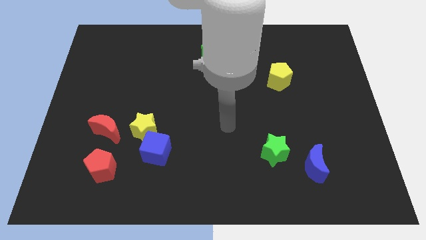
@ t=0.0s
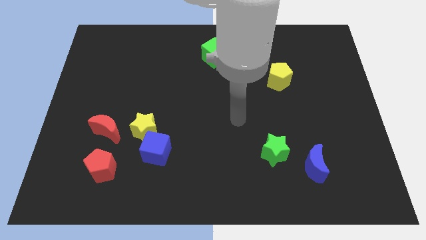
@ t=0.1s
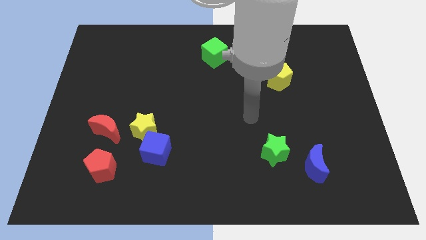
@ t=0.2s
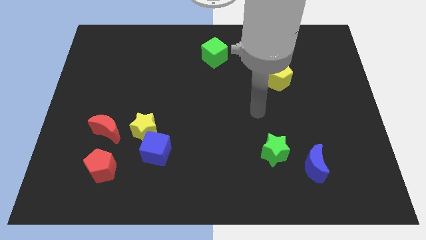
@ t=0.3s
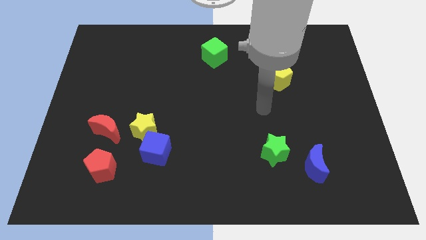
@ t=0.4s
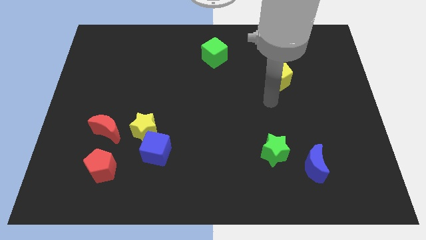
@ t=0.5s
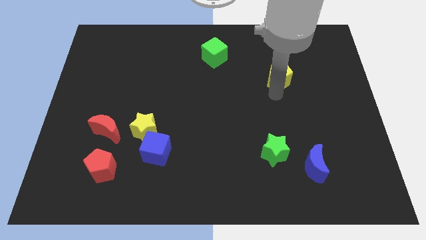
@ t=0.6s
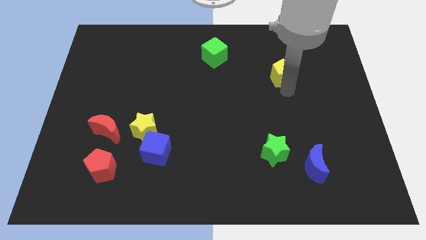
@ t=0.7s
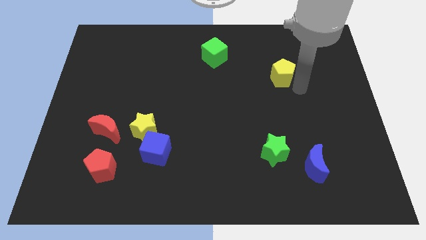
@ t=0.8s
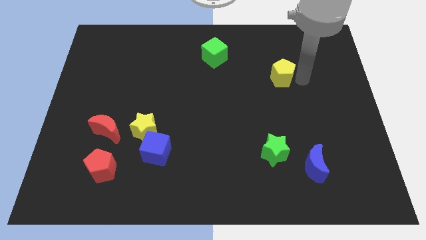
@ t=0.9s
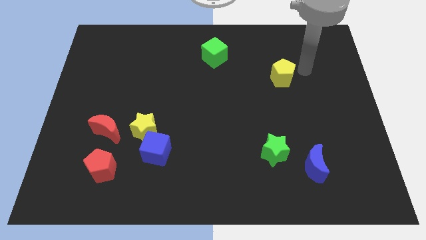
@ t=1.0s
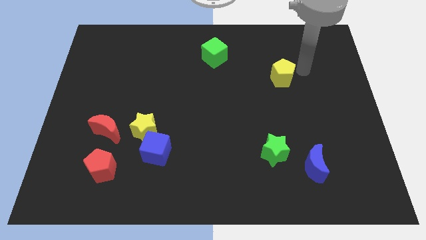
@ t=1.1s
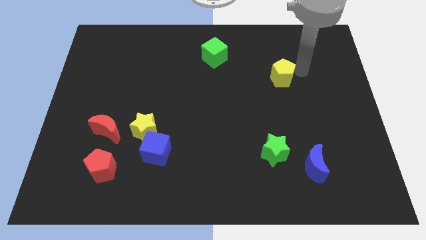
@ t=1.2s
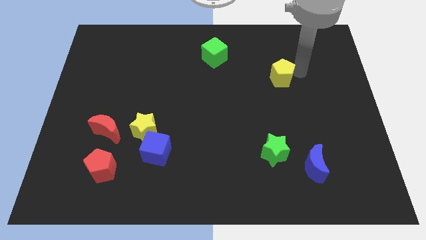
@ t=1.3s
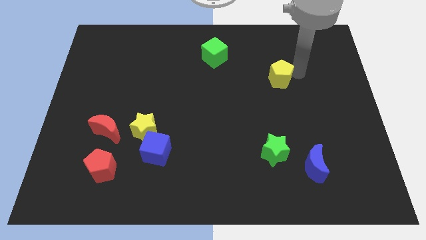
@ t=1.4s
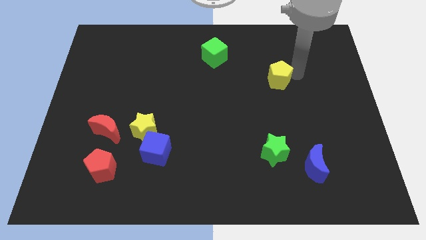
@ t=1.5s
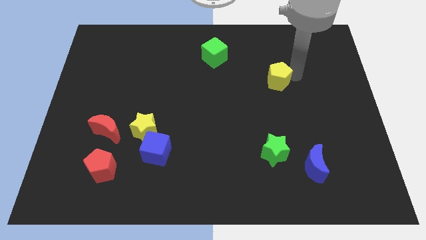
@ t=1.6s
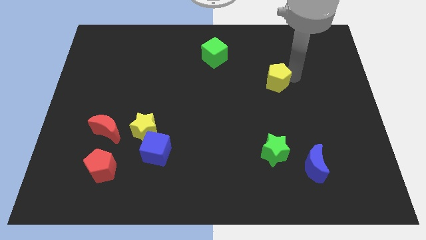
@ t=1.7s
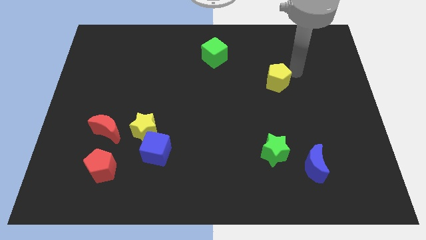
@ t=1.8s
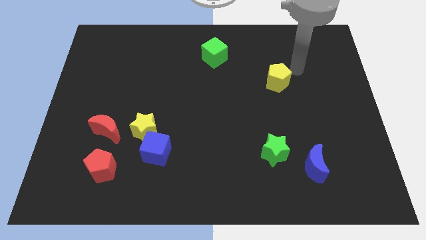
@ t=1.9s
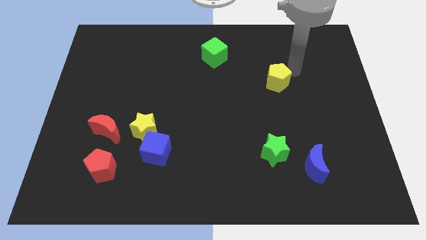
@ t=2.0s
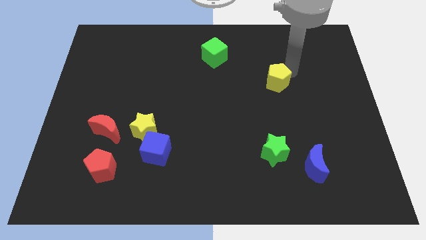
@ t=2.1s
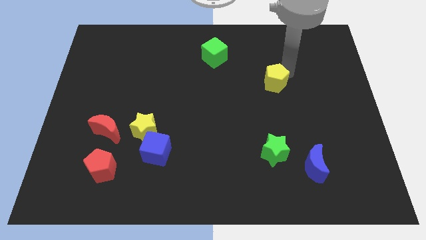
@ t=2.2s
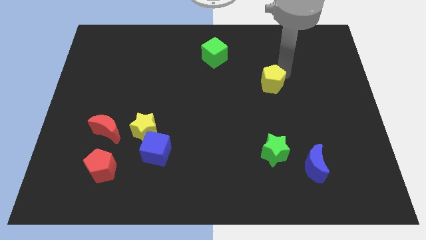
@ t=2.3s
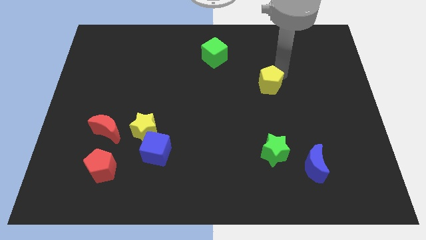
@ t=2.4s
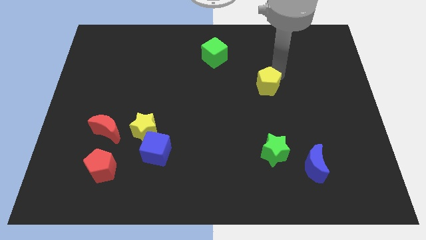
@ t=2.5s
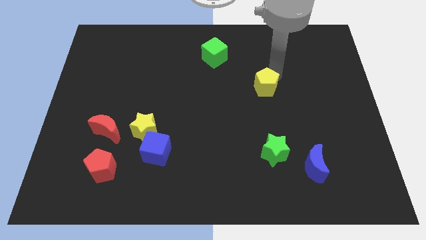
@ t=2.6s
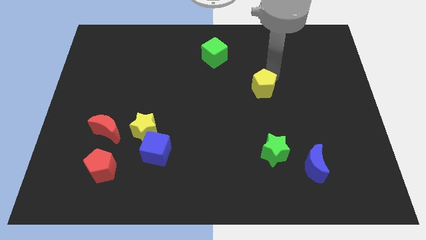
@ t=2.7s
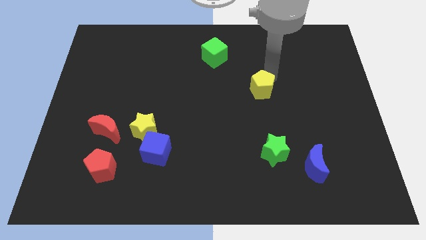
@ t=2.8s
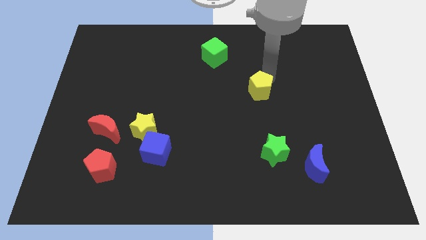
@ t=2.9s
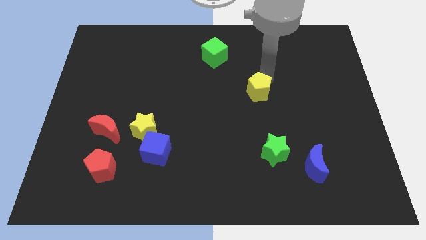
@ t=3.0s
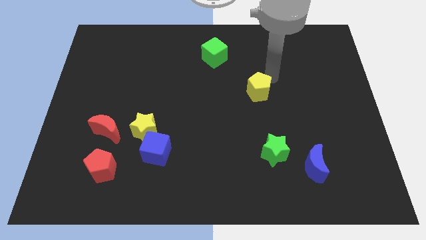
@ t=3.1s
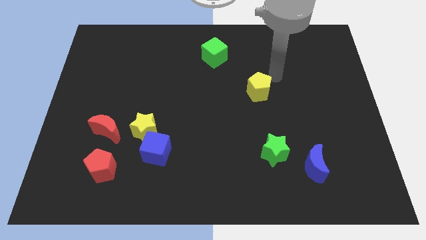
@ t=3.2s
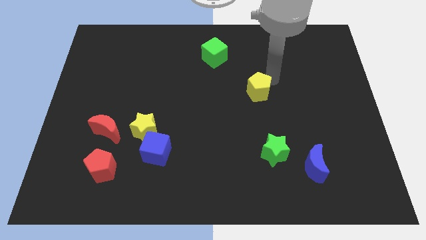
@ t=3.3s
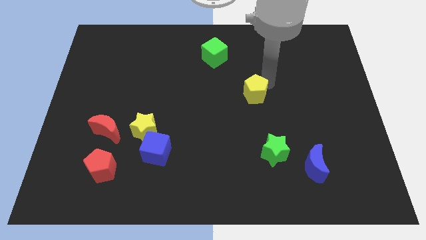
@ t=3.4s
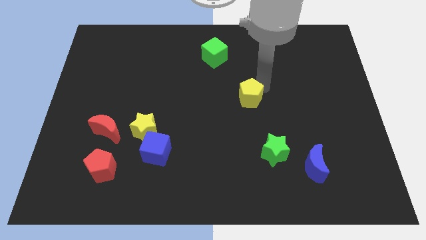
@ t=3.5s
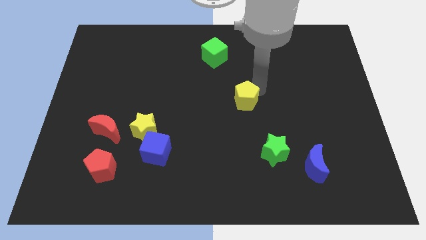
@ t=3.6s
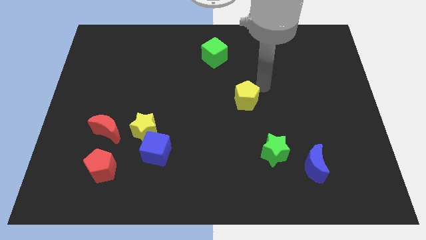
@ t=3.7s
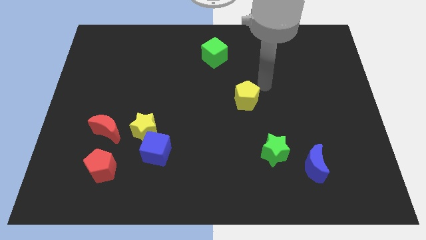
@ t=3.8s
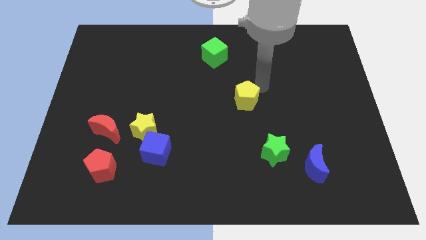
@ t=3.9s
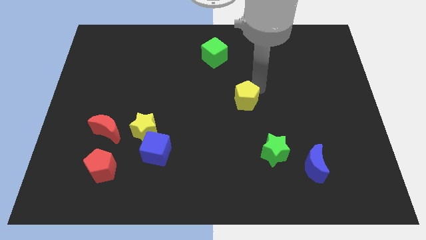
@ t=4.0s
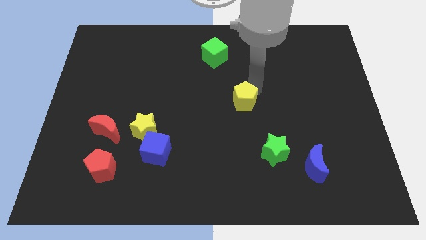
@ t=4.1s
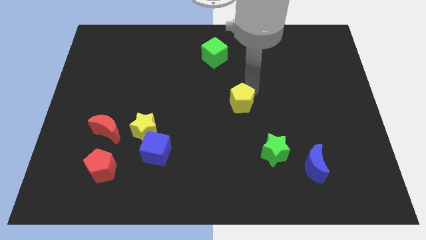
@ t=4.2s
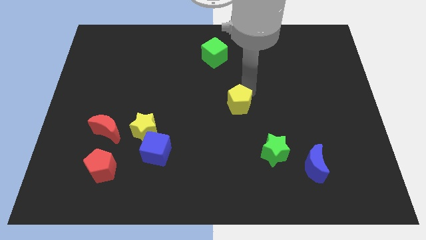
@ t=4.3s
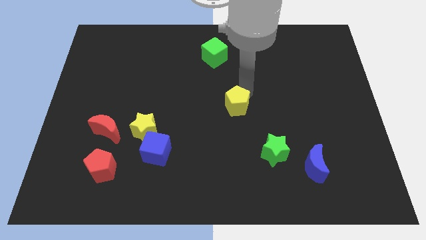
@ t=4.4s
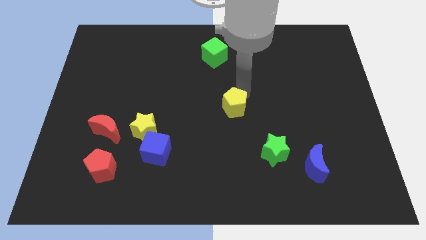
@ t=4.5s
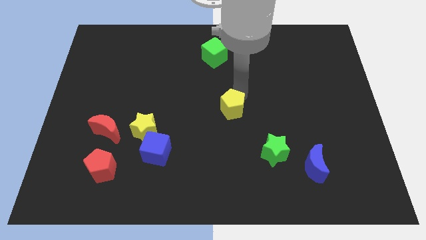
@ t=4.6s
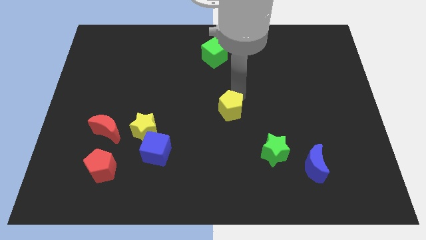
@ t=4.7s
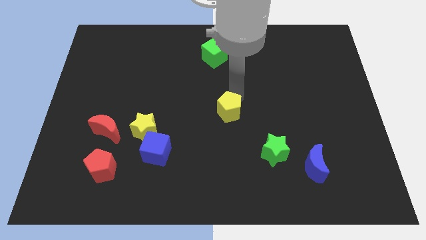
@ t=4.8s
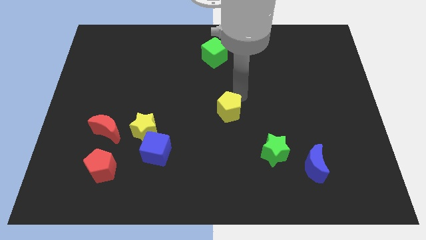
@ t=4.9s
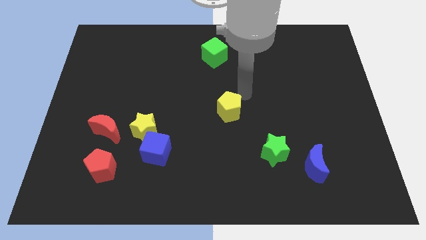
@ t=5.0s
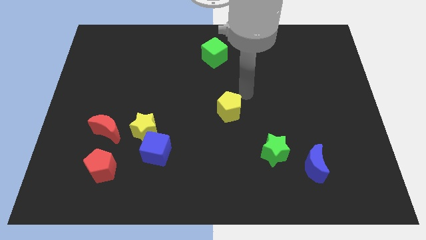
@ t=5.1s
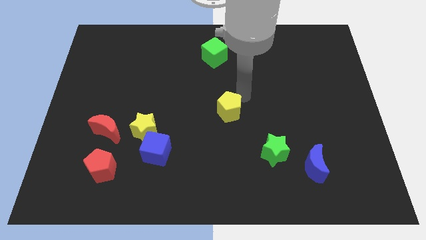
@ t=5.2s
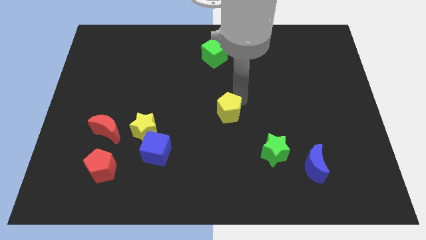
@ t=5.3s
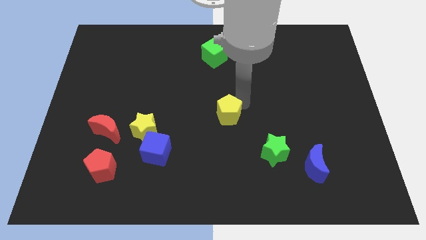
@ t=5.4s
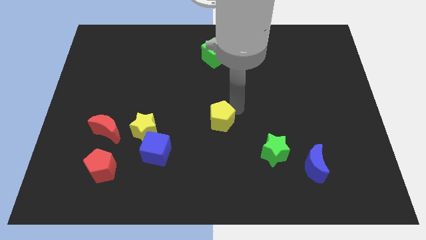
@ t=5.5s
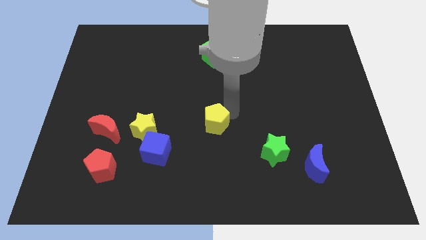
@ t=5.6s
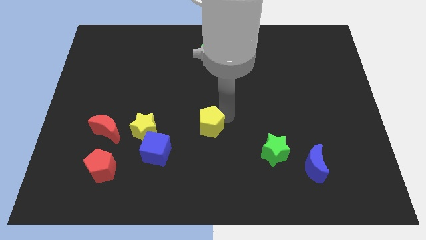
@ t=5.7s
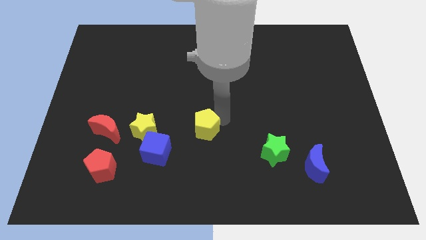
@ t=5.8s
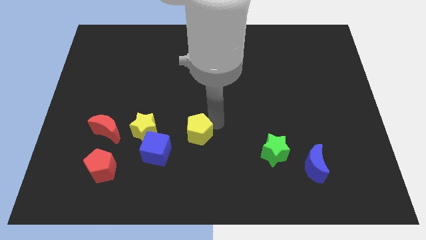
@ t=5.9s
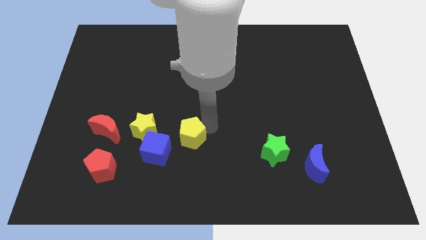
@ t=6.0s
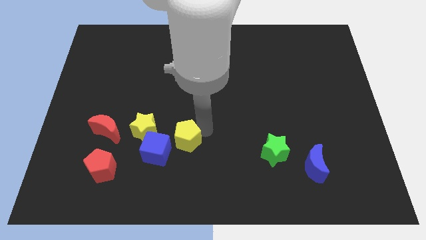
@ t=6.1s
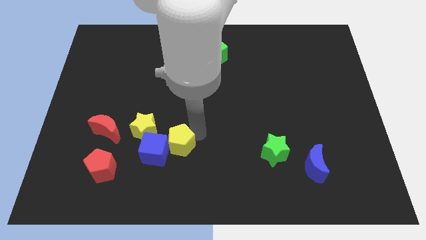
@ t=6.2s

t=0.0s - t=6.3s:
move the yellow pentagon next to the blue cube

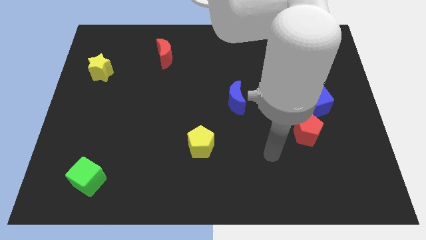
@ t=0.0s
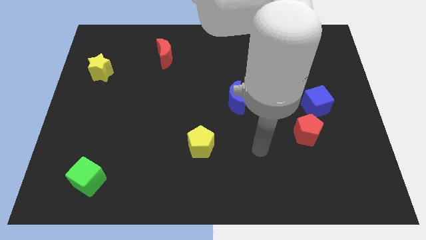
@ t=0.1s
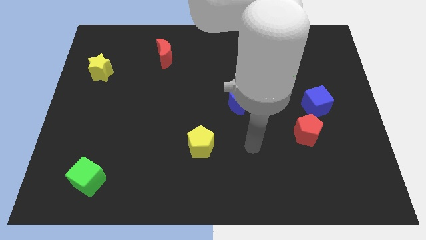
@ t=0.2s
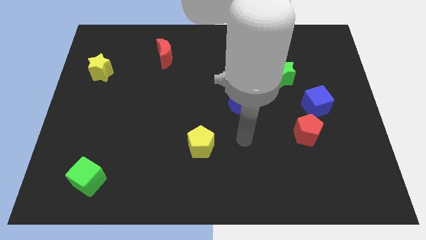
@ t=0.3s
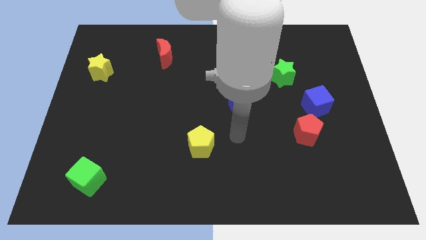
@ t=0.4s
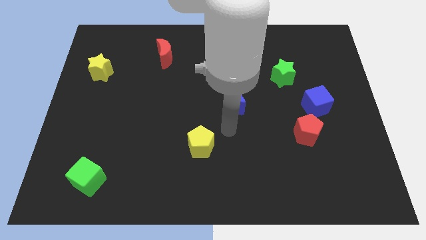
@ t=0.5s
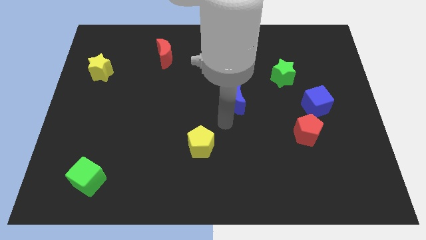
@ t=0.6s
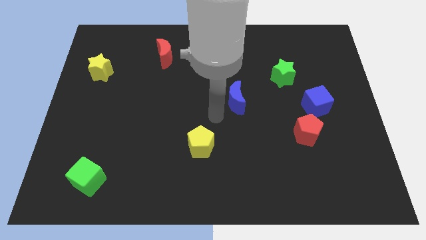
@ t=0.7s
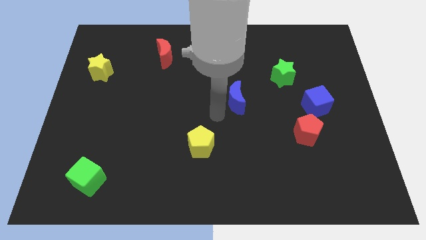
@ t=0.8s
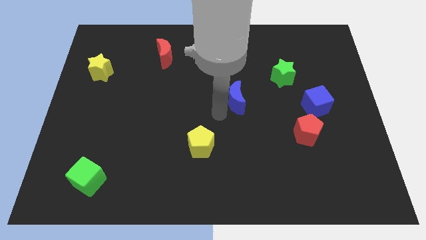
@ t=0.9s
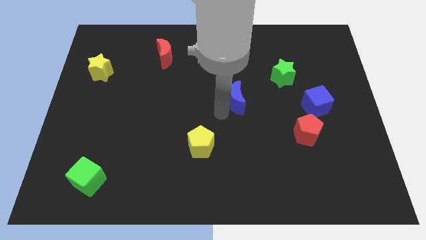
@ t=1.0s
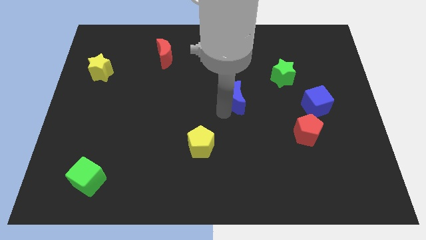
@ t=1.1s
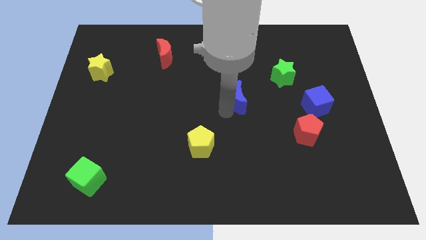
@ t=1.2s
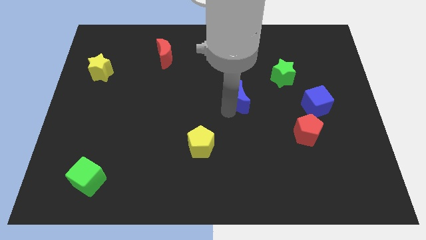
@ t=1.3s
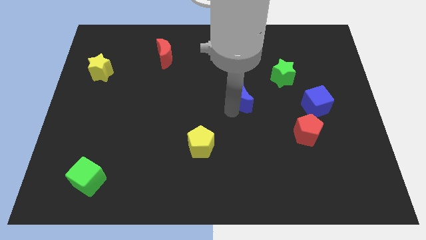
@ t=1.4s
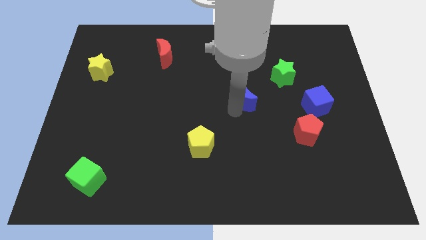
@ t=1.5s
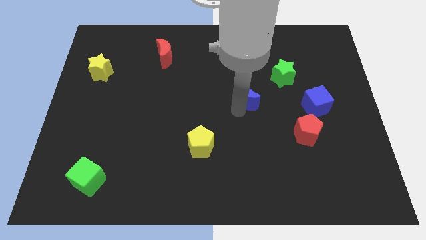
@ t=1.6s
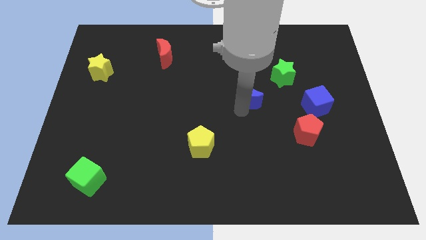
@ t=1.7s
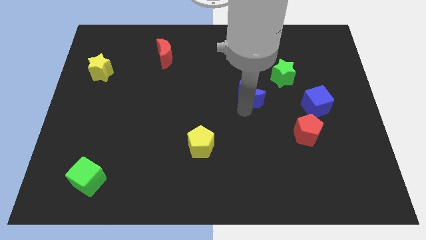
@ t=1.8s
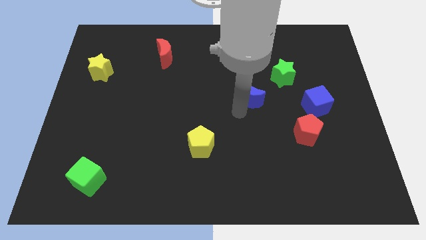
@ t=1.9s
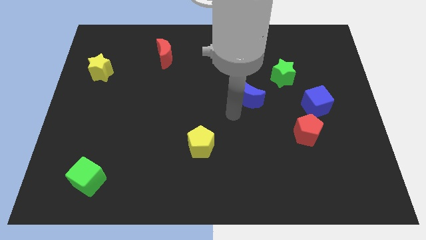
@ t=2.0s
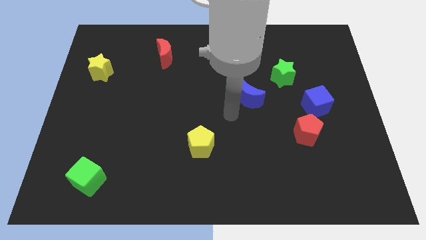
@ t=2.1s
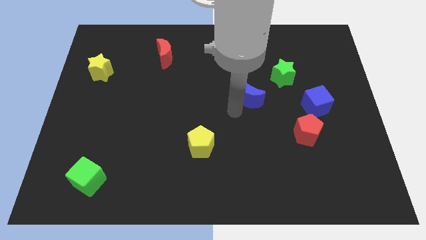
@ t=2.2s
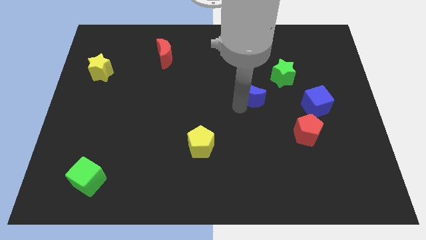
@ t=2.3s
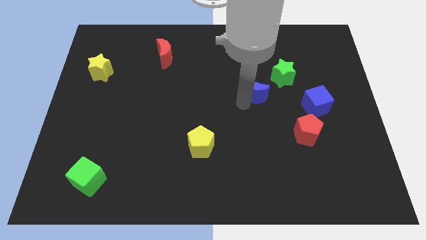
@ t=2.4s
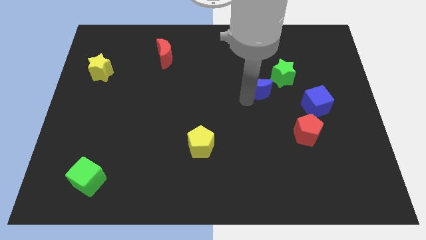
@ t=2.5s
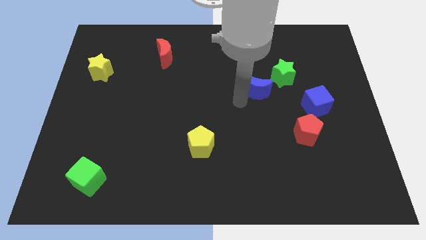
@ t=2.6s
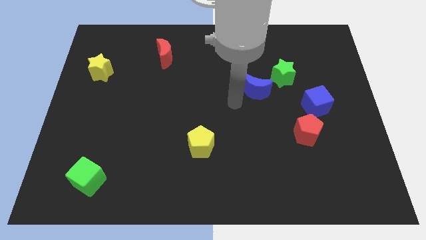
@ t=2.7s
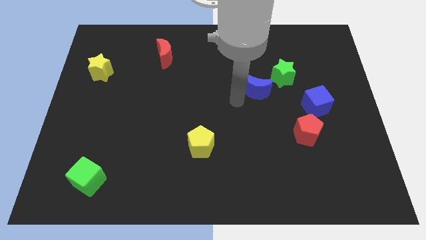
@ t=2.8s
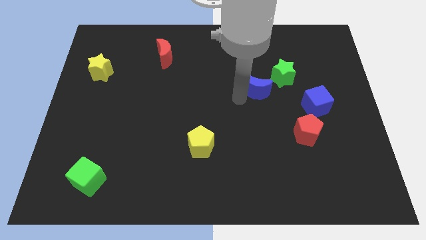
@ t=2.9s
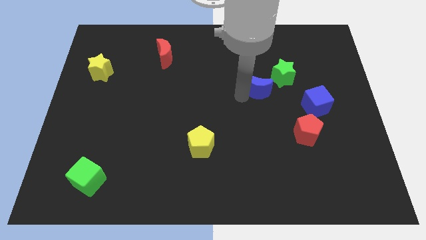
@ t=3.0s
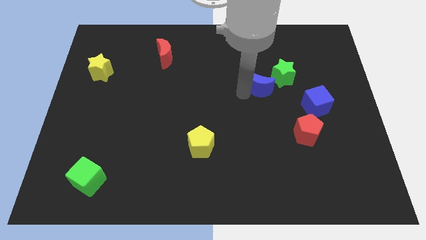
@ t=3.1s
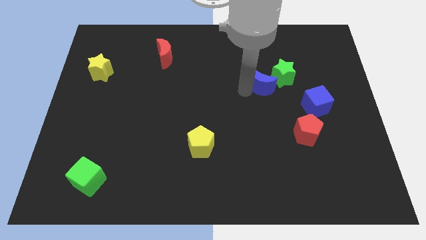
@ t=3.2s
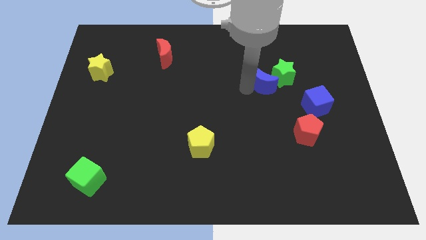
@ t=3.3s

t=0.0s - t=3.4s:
push the blue moon next to the green star
